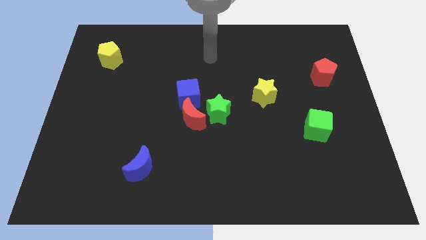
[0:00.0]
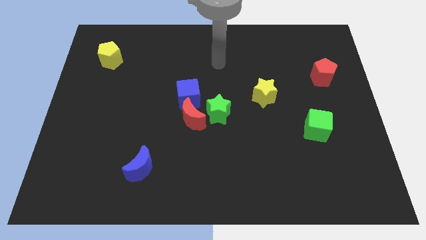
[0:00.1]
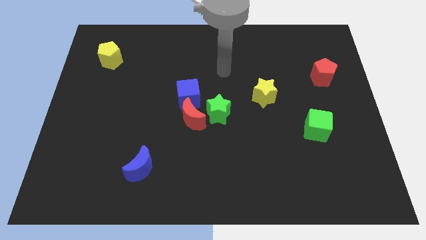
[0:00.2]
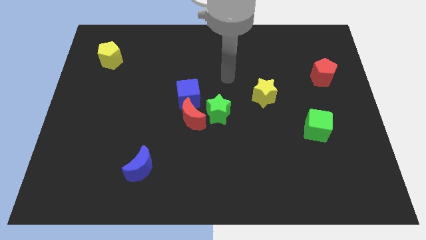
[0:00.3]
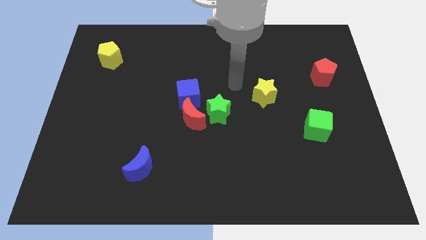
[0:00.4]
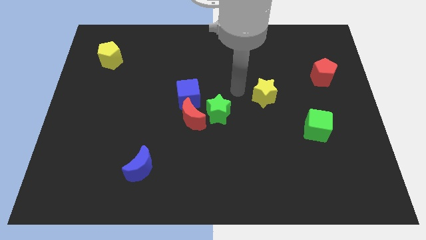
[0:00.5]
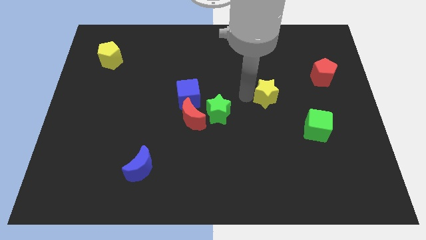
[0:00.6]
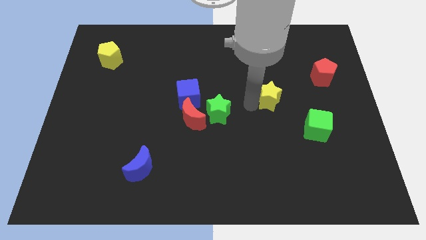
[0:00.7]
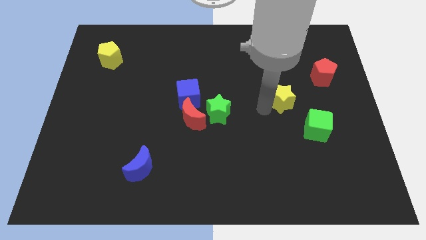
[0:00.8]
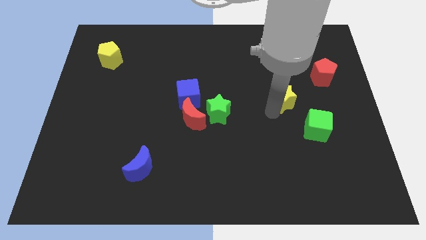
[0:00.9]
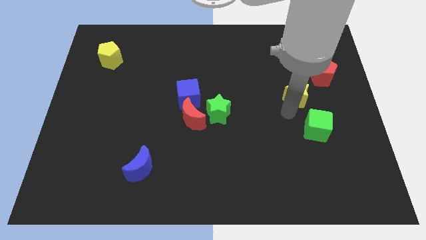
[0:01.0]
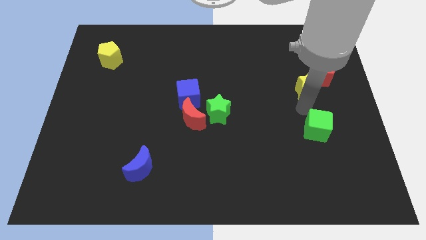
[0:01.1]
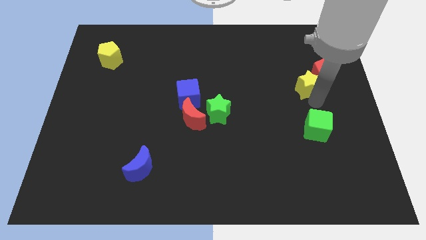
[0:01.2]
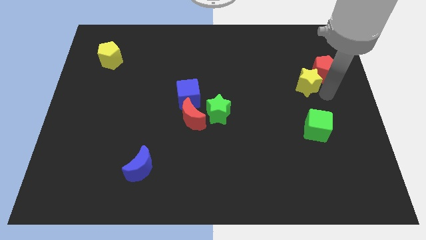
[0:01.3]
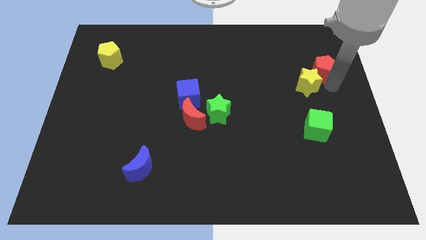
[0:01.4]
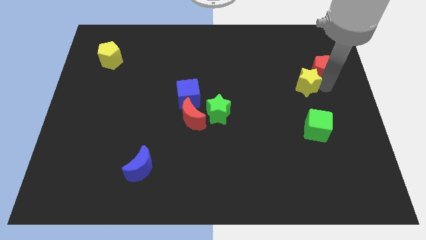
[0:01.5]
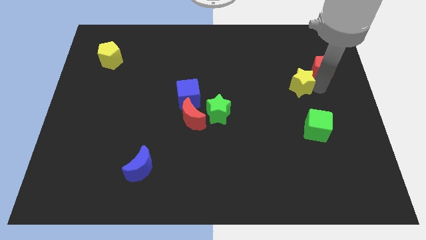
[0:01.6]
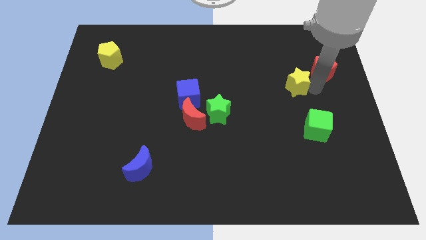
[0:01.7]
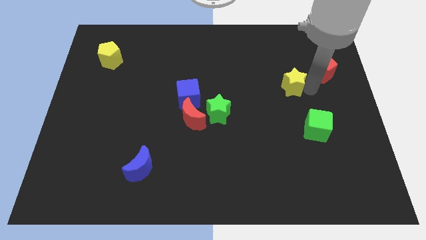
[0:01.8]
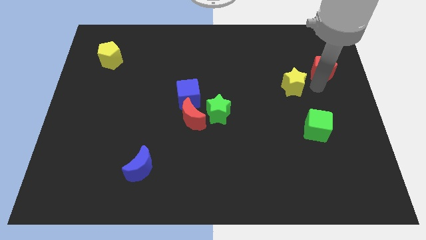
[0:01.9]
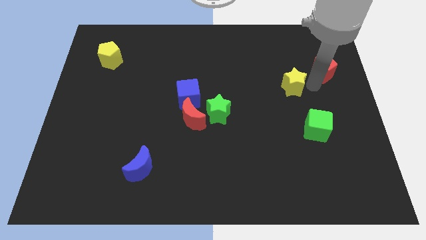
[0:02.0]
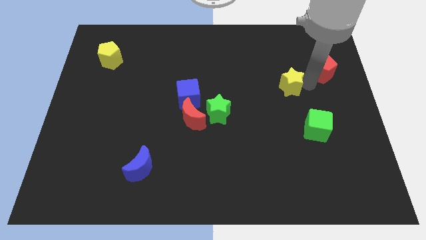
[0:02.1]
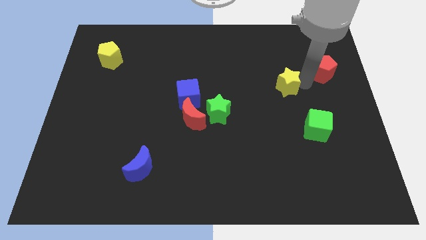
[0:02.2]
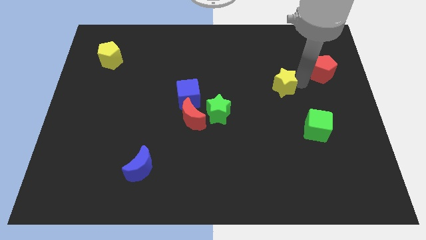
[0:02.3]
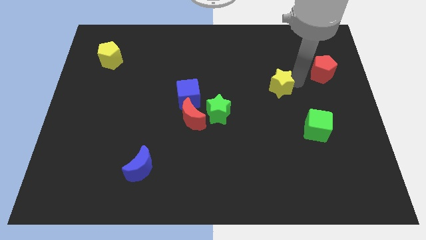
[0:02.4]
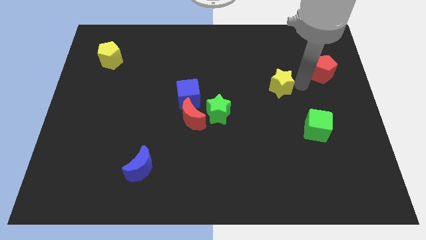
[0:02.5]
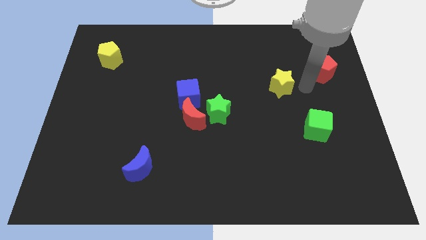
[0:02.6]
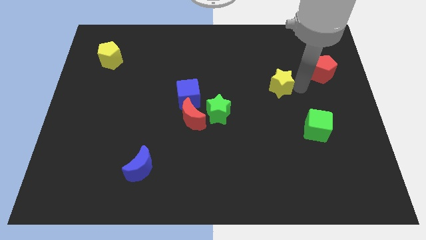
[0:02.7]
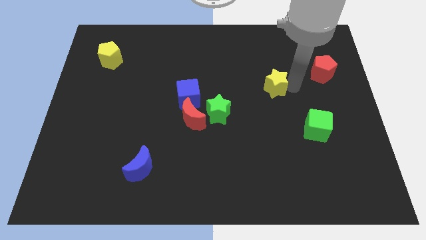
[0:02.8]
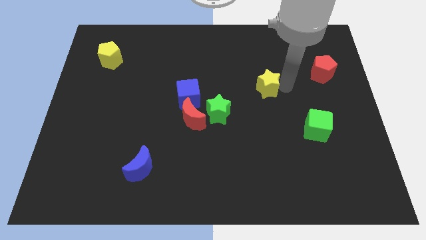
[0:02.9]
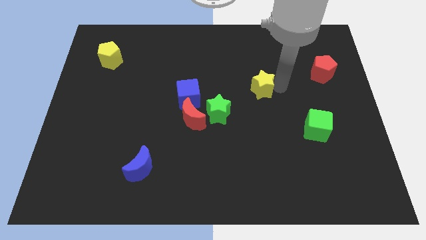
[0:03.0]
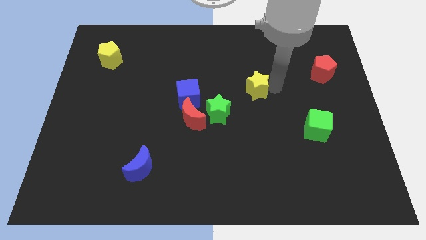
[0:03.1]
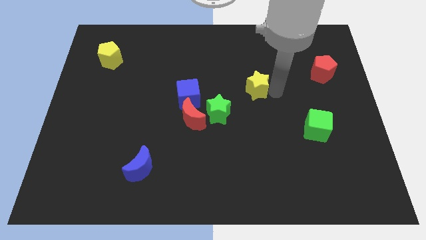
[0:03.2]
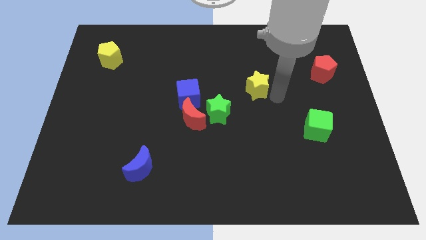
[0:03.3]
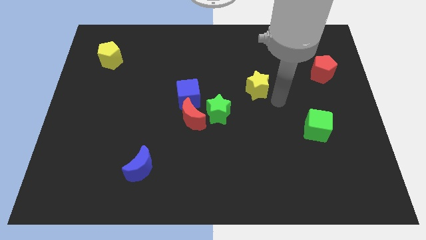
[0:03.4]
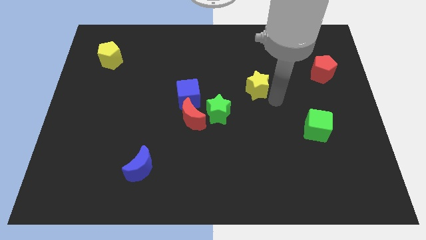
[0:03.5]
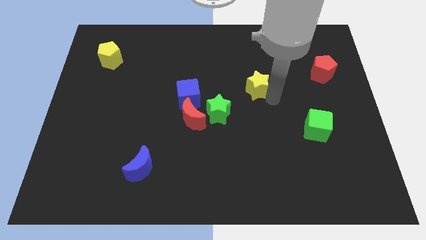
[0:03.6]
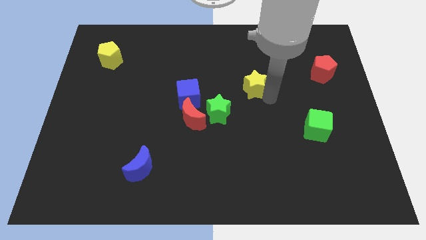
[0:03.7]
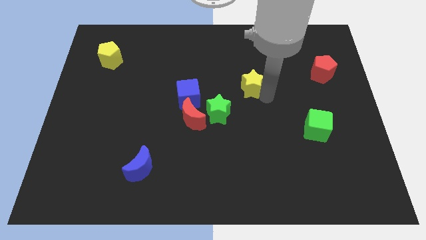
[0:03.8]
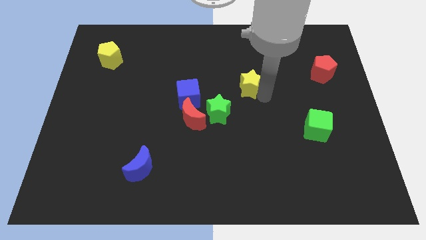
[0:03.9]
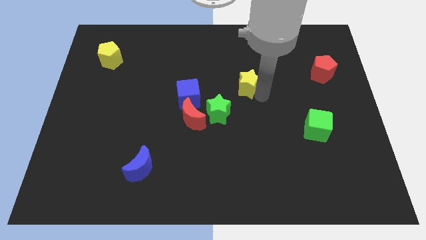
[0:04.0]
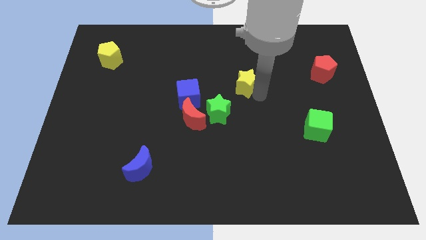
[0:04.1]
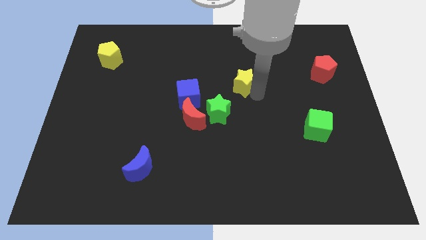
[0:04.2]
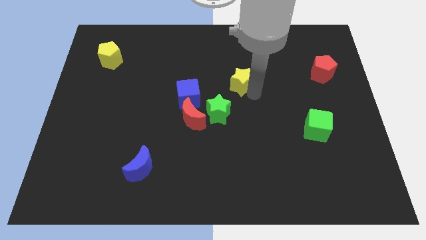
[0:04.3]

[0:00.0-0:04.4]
push the yellow star upwards and then left slightly

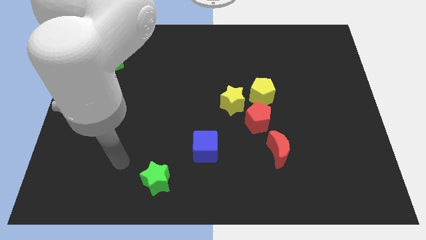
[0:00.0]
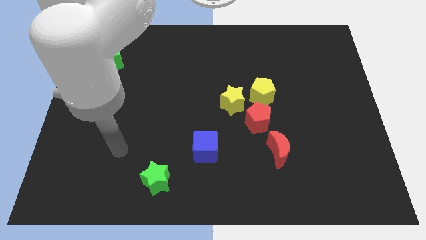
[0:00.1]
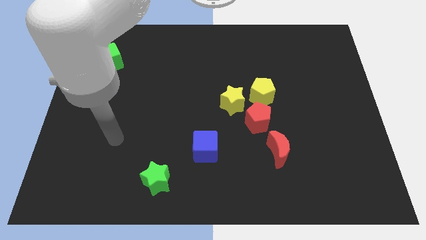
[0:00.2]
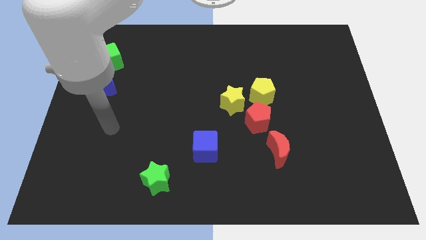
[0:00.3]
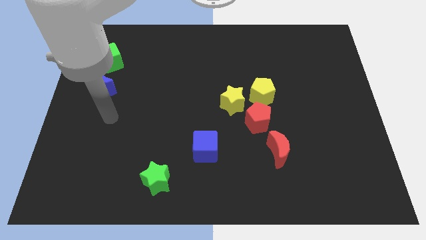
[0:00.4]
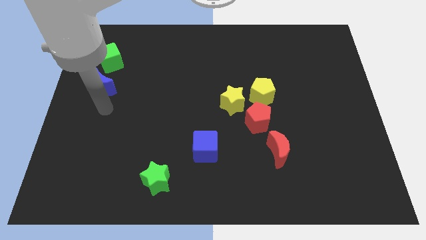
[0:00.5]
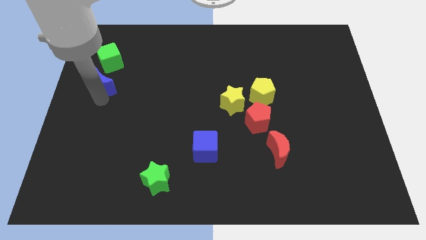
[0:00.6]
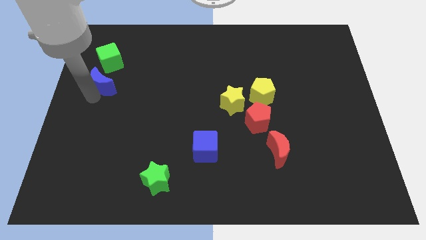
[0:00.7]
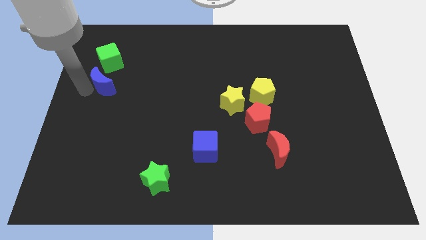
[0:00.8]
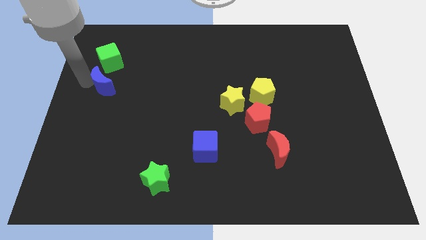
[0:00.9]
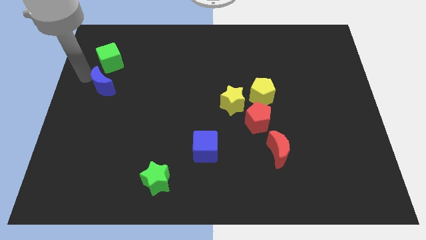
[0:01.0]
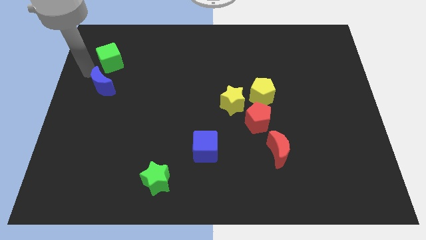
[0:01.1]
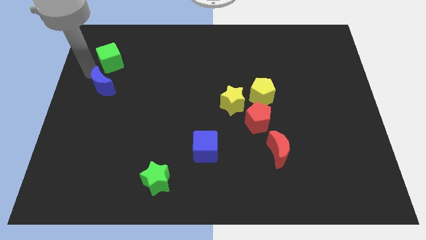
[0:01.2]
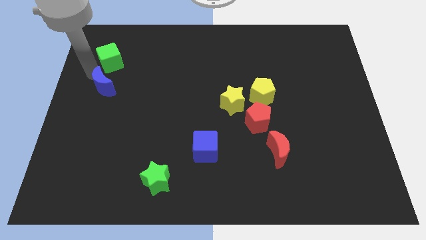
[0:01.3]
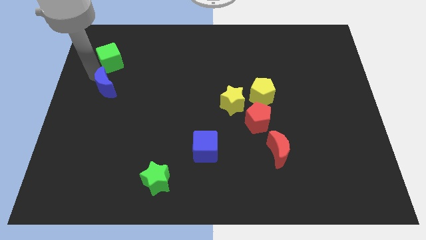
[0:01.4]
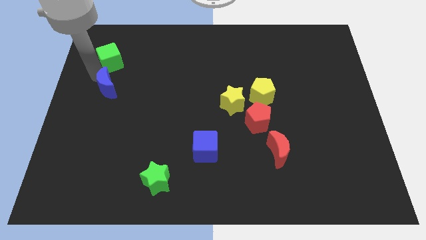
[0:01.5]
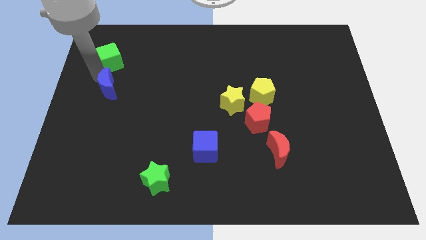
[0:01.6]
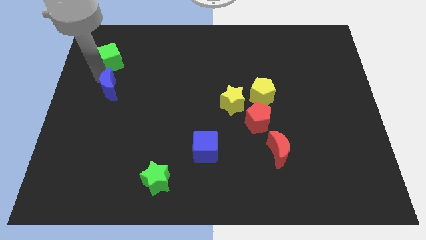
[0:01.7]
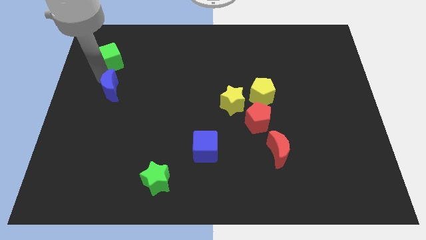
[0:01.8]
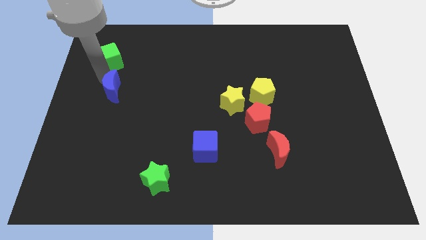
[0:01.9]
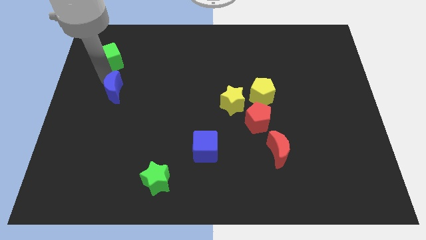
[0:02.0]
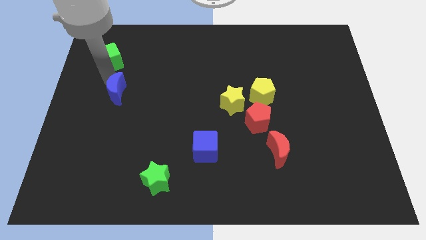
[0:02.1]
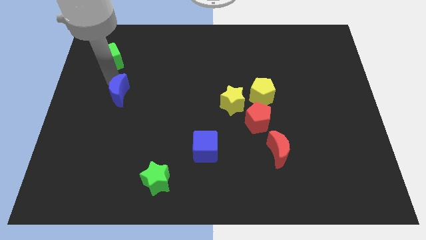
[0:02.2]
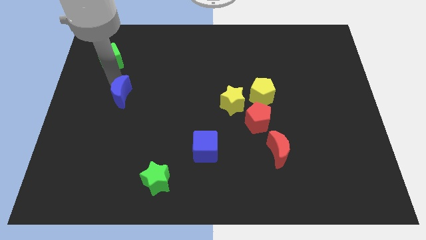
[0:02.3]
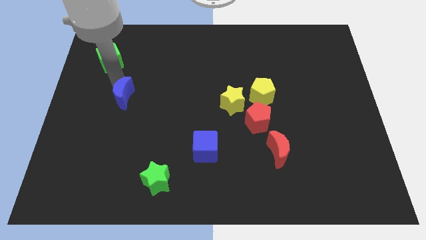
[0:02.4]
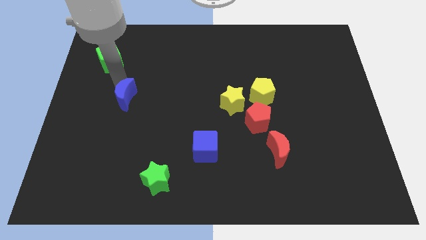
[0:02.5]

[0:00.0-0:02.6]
slide the blue moon downwards and to the right diagonally slightly

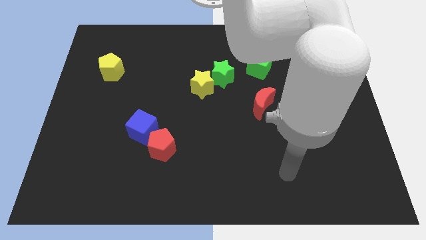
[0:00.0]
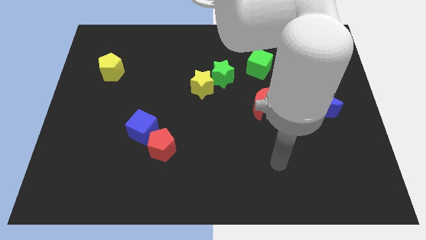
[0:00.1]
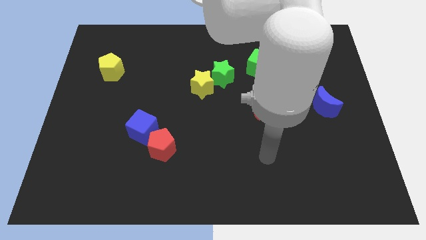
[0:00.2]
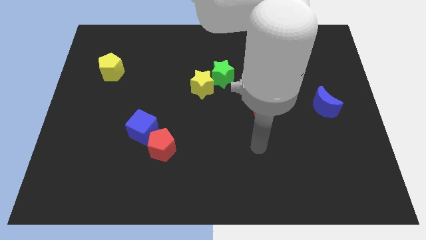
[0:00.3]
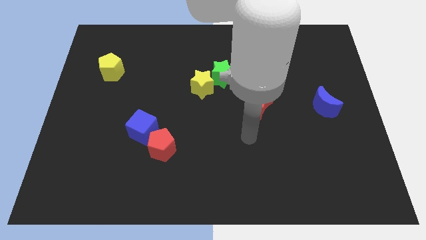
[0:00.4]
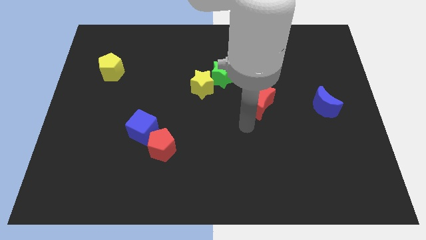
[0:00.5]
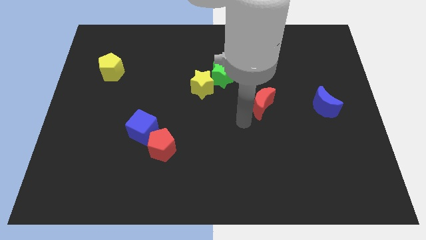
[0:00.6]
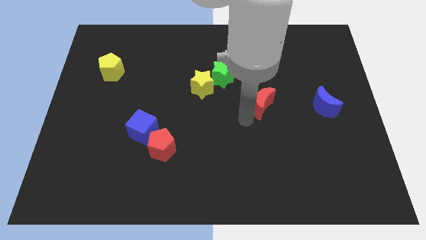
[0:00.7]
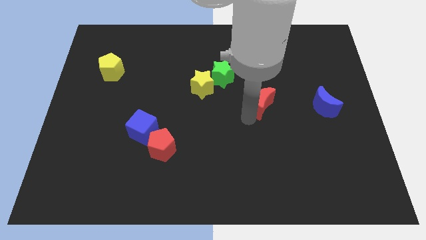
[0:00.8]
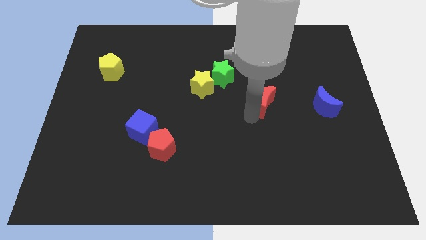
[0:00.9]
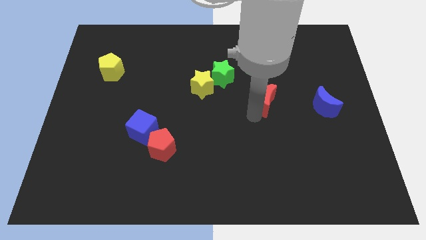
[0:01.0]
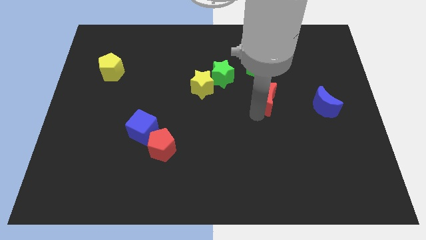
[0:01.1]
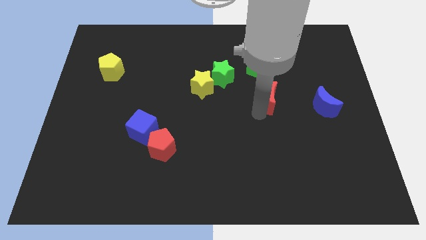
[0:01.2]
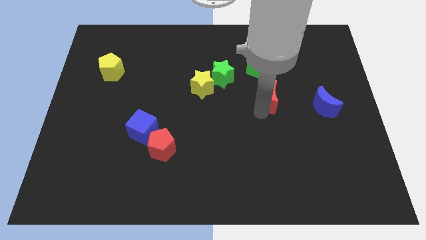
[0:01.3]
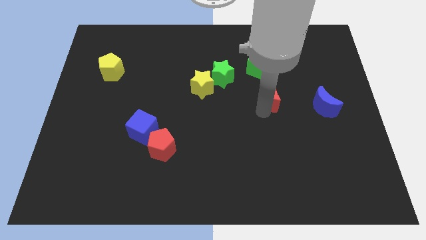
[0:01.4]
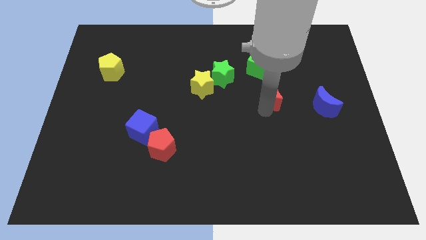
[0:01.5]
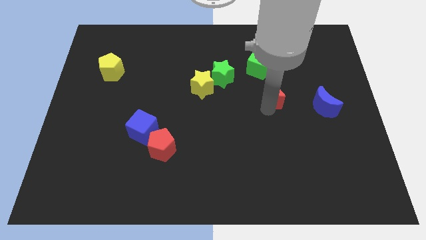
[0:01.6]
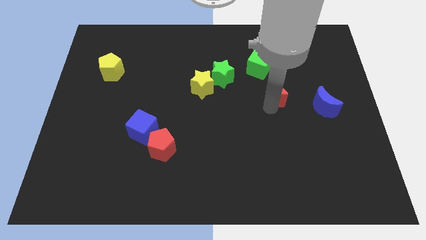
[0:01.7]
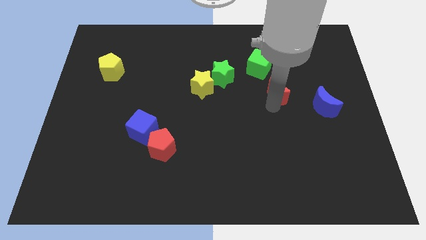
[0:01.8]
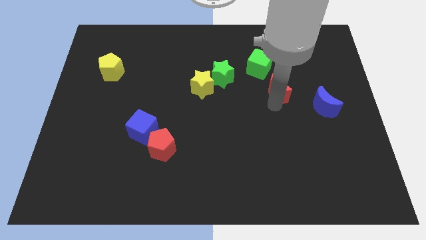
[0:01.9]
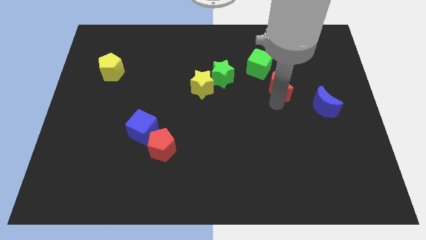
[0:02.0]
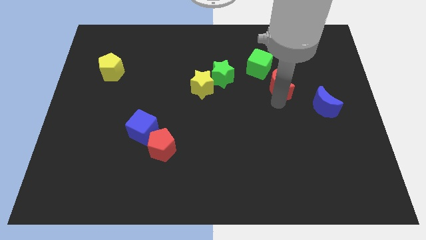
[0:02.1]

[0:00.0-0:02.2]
move the red moon diagonally up and right a little bit
